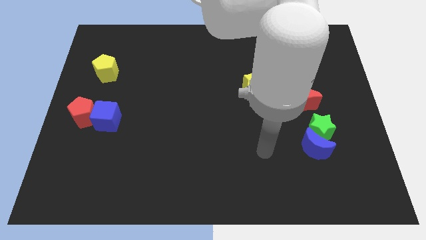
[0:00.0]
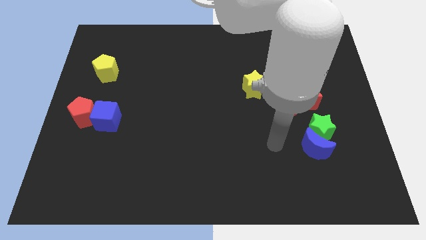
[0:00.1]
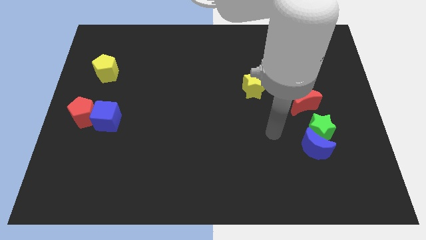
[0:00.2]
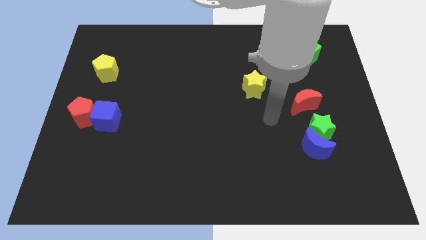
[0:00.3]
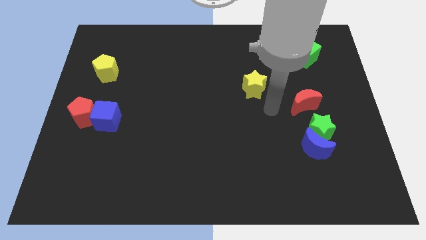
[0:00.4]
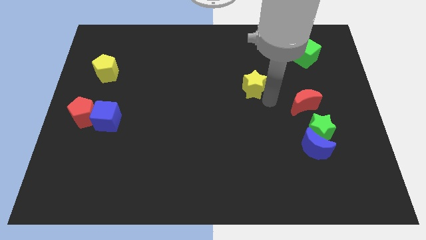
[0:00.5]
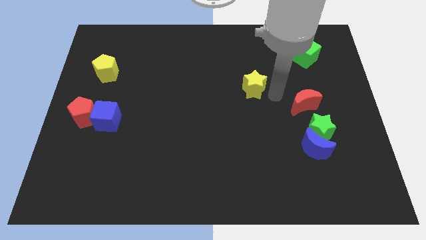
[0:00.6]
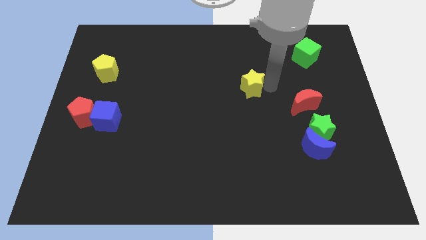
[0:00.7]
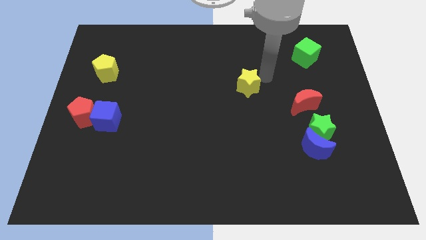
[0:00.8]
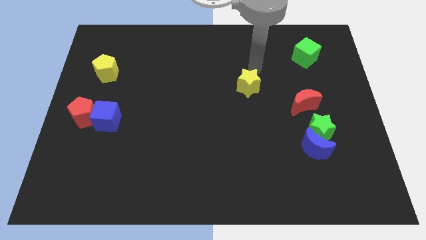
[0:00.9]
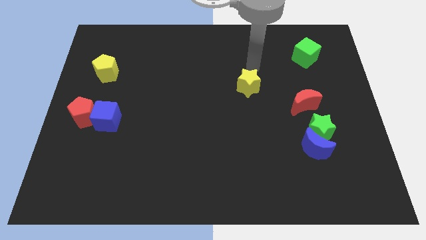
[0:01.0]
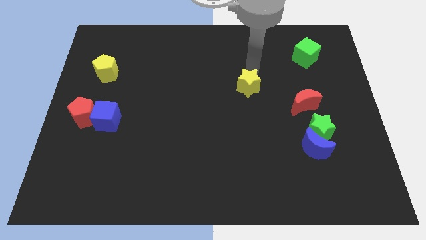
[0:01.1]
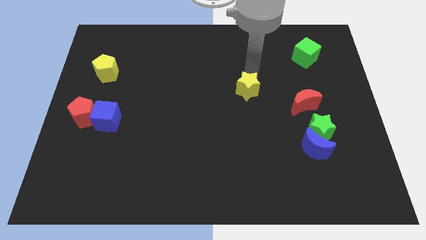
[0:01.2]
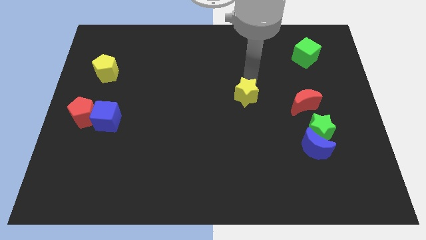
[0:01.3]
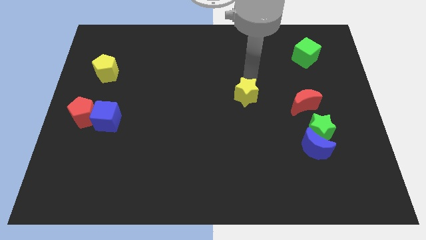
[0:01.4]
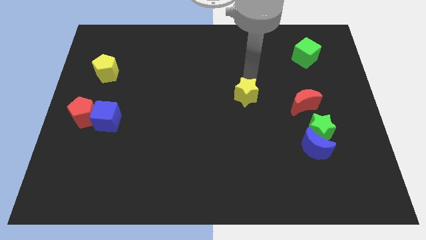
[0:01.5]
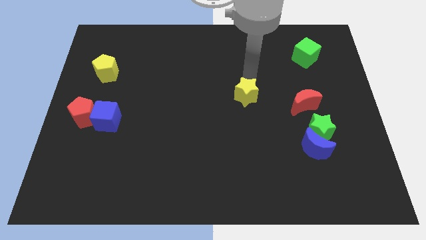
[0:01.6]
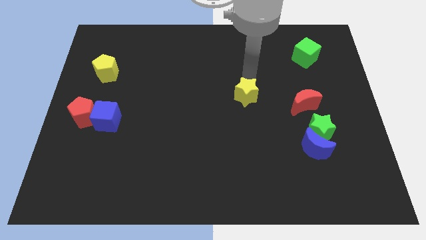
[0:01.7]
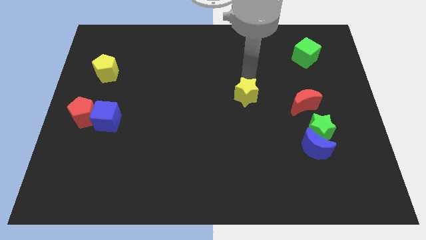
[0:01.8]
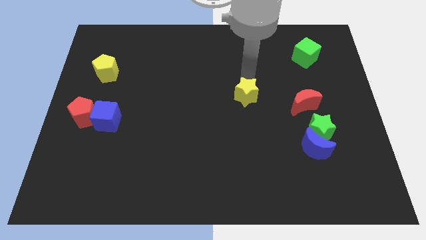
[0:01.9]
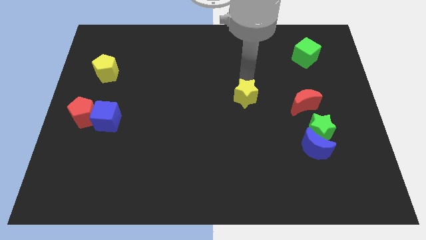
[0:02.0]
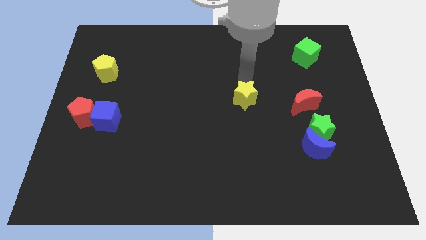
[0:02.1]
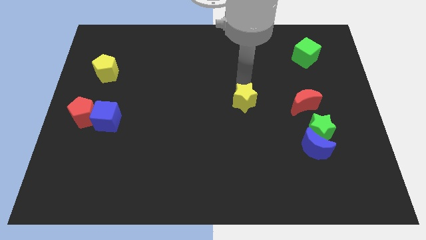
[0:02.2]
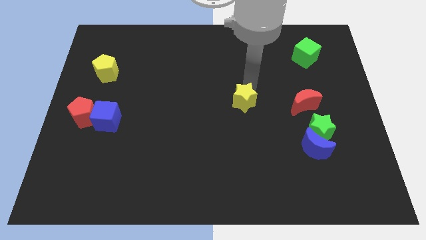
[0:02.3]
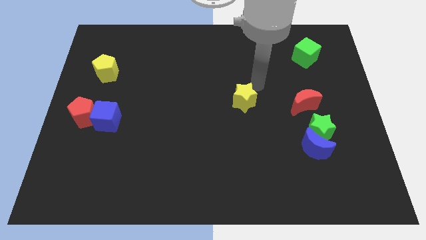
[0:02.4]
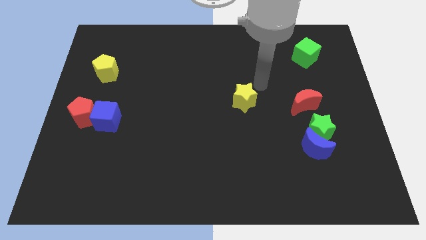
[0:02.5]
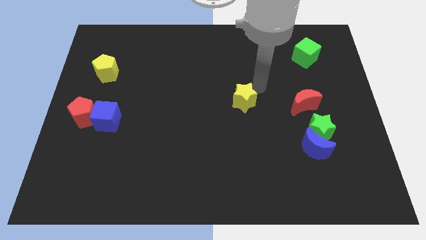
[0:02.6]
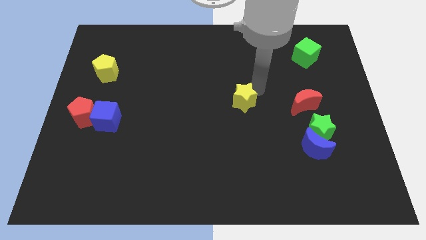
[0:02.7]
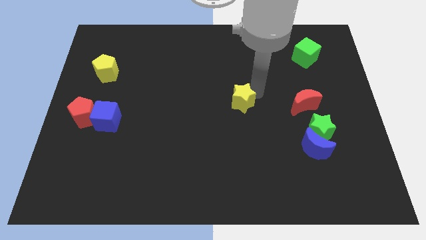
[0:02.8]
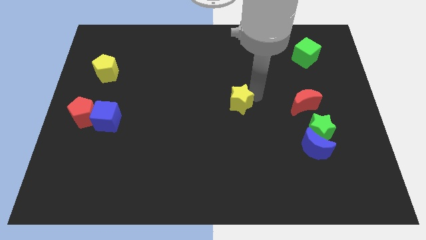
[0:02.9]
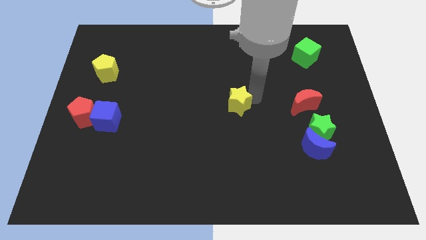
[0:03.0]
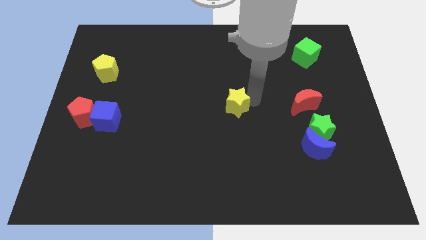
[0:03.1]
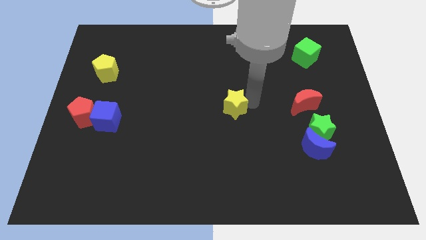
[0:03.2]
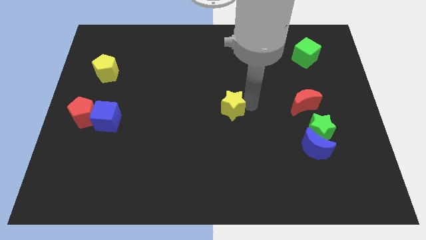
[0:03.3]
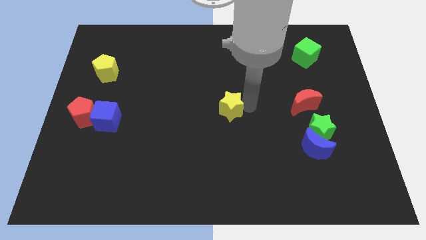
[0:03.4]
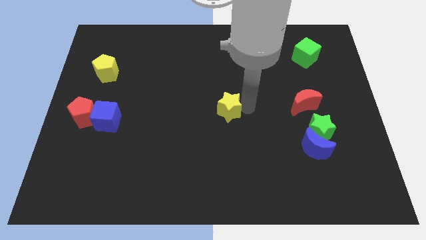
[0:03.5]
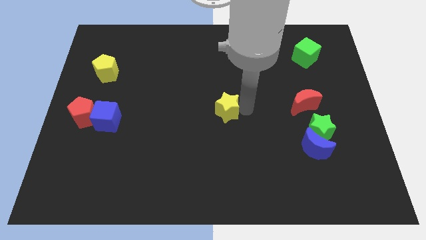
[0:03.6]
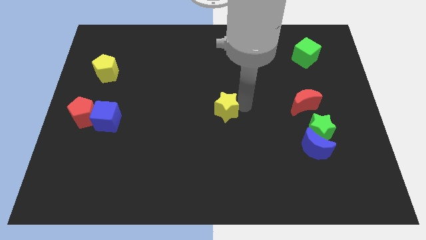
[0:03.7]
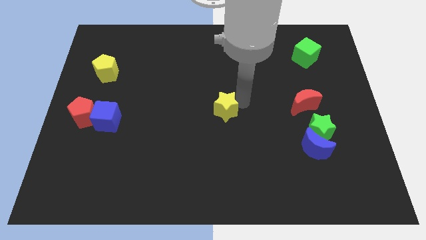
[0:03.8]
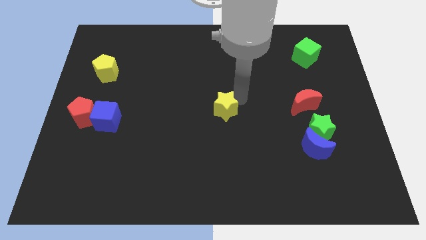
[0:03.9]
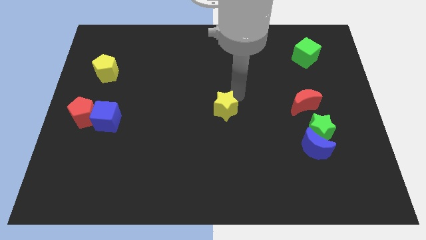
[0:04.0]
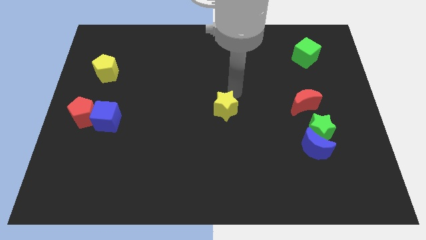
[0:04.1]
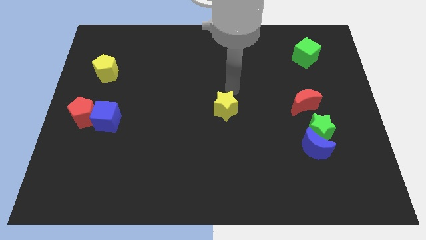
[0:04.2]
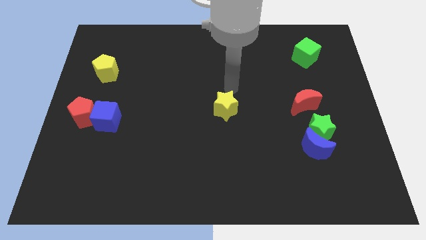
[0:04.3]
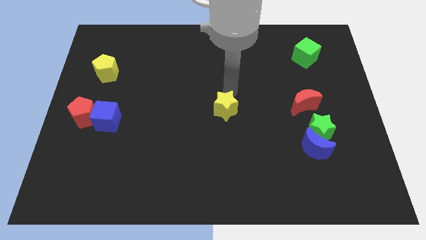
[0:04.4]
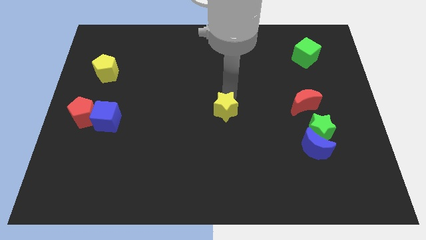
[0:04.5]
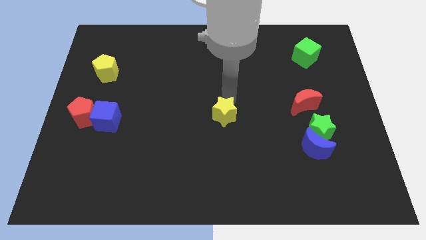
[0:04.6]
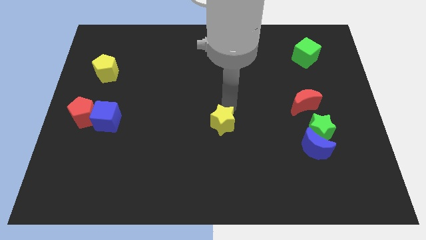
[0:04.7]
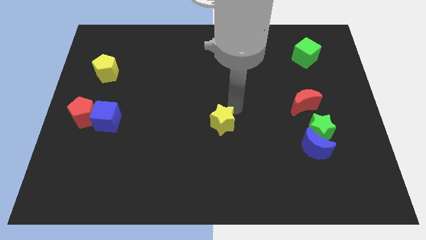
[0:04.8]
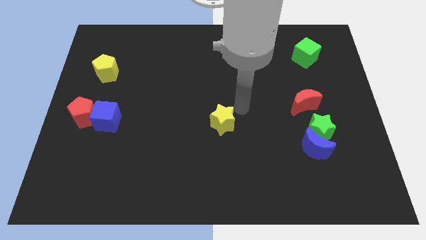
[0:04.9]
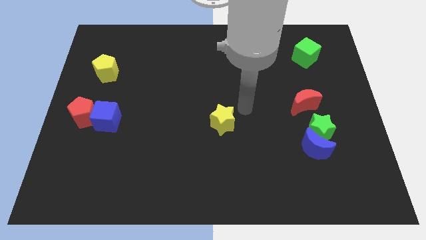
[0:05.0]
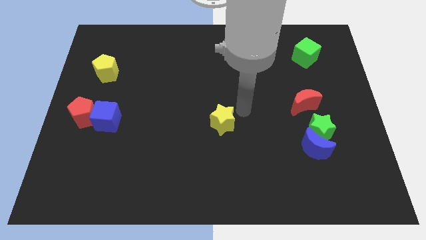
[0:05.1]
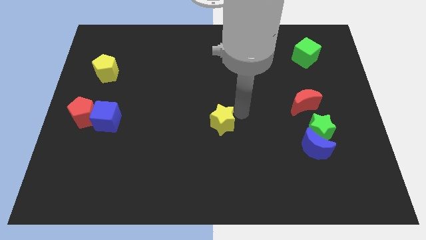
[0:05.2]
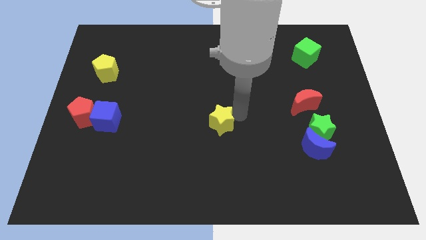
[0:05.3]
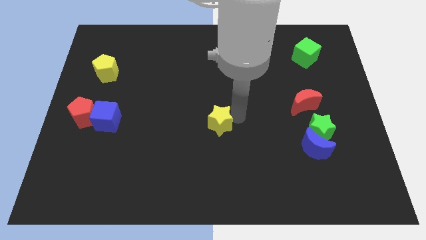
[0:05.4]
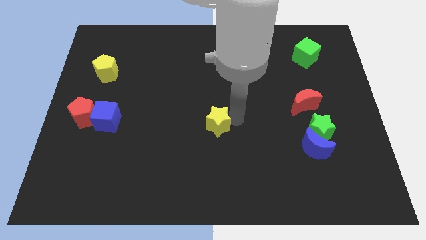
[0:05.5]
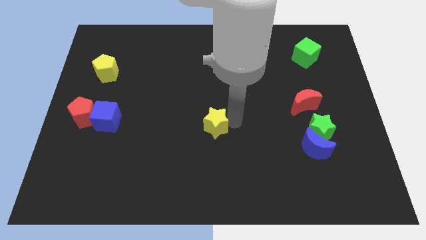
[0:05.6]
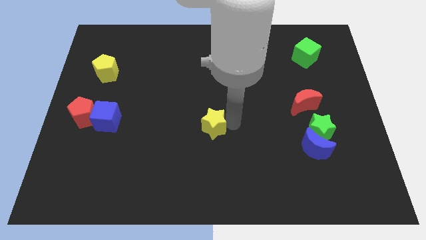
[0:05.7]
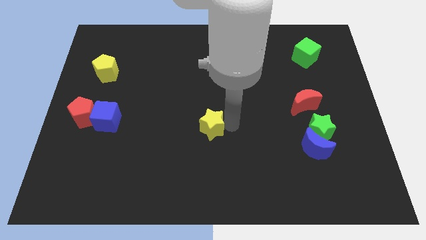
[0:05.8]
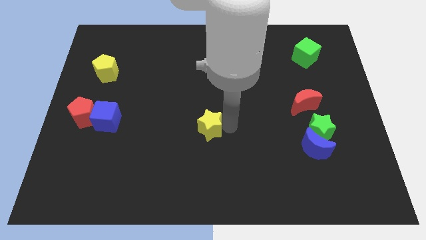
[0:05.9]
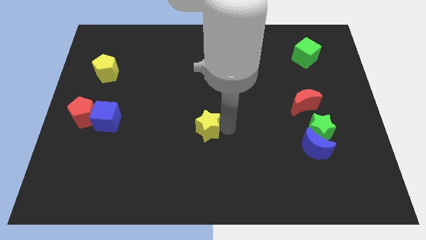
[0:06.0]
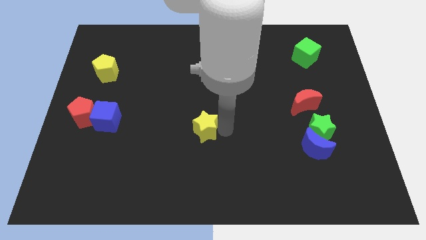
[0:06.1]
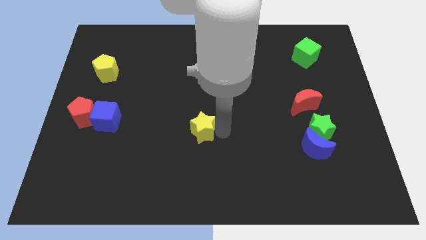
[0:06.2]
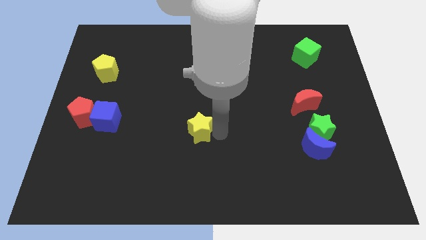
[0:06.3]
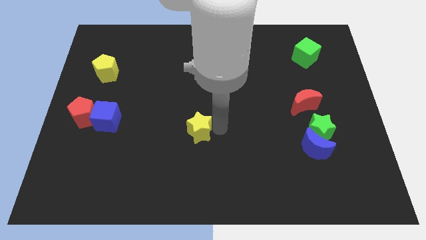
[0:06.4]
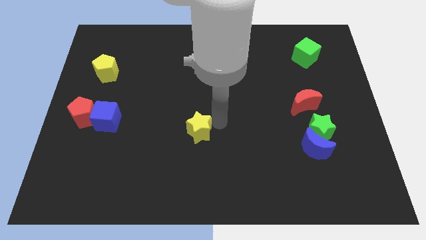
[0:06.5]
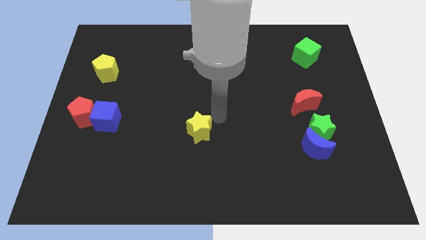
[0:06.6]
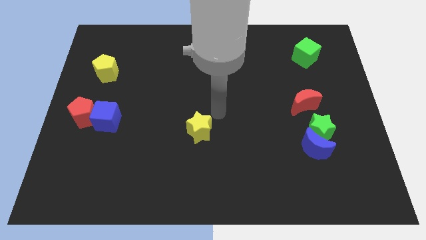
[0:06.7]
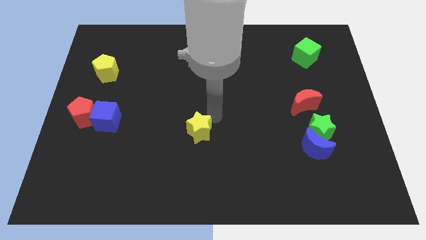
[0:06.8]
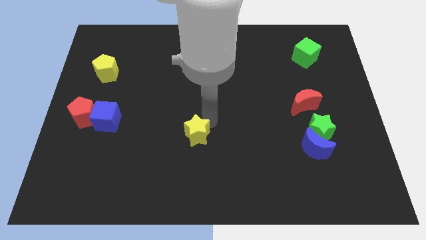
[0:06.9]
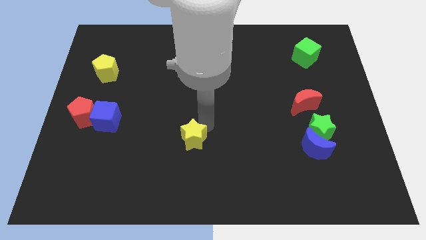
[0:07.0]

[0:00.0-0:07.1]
push the yellow star diagonally down and to the left

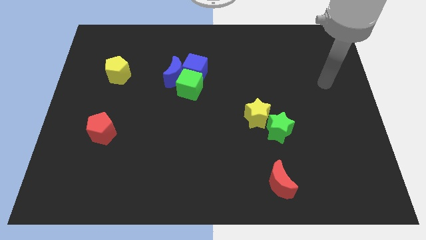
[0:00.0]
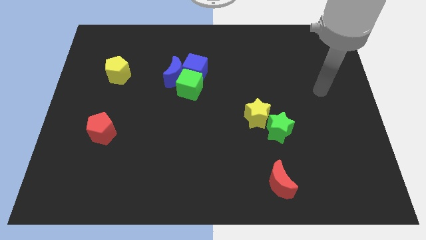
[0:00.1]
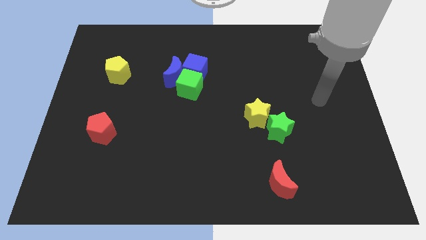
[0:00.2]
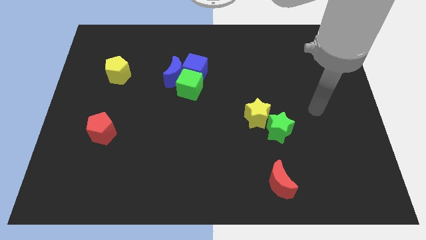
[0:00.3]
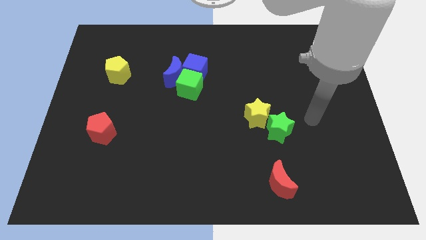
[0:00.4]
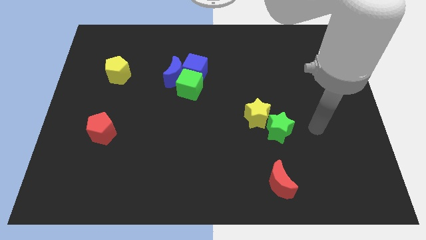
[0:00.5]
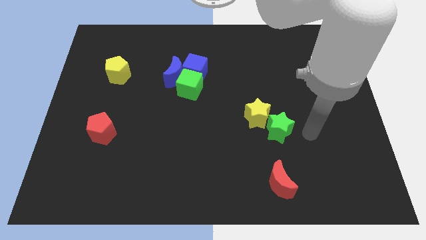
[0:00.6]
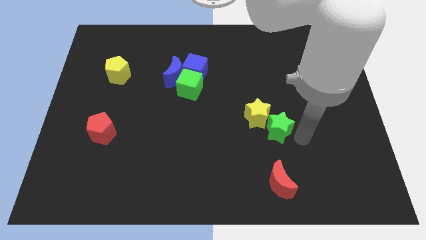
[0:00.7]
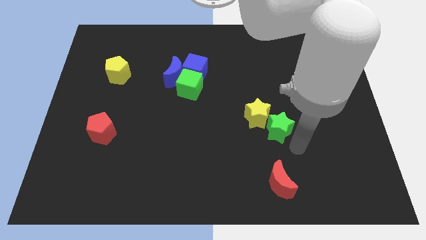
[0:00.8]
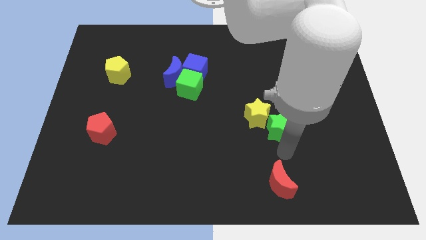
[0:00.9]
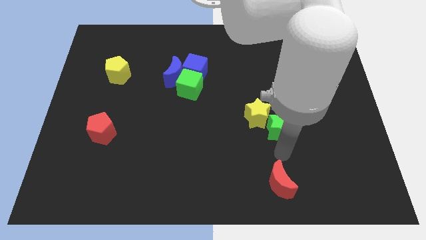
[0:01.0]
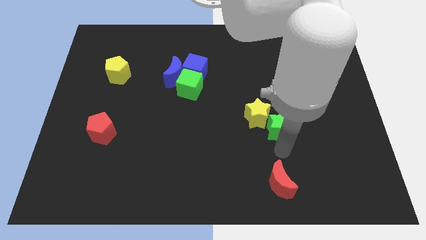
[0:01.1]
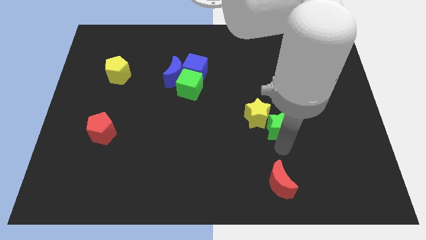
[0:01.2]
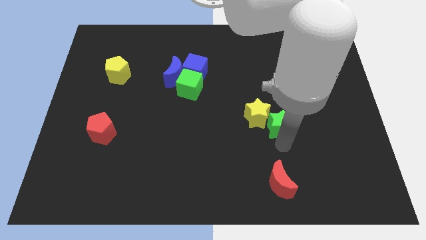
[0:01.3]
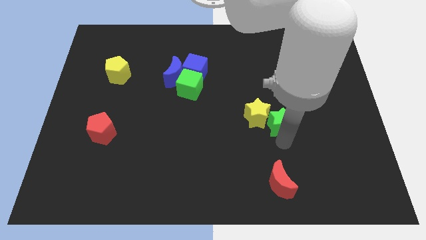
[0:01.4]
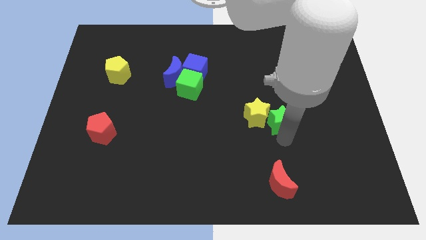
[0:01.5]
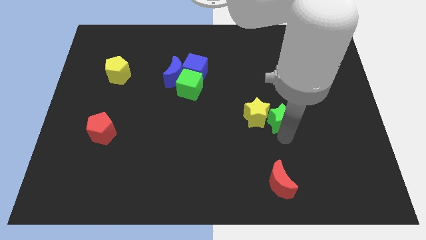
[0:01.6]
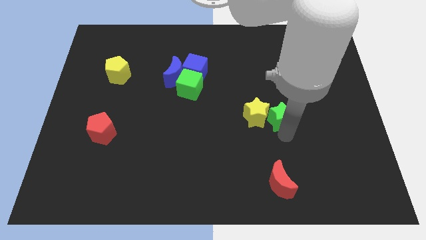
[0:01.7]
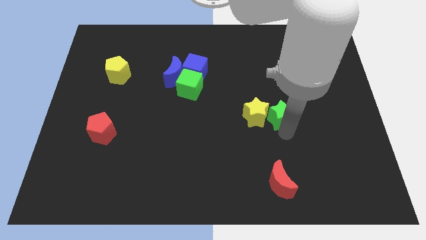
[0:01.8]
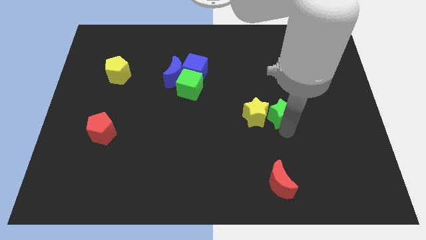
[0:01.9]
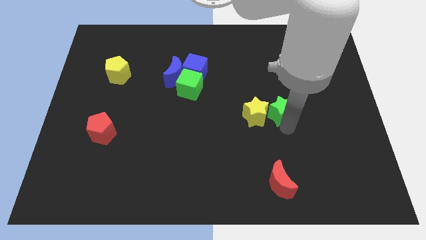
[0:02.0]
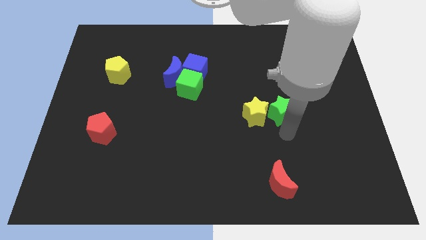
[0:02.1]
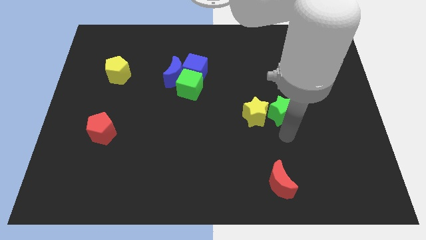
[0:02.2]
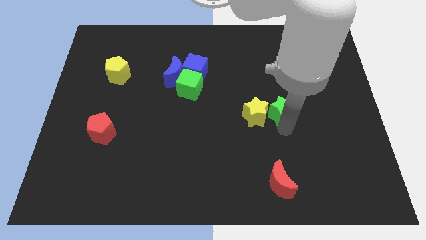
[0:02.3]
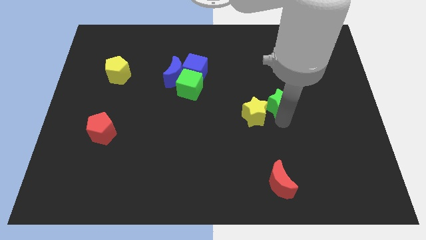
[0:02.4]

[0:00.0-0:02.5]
slide the green star a little upwards
